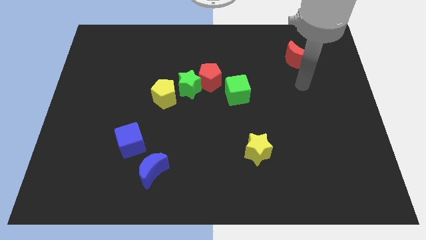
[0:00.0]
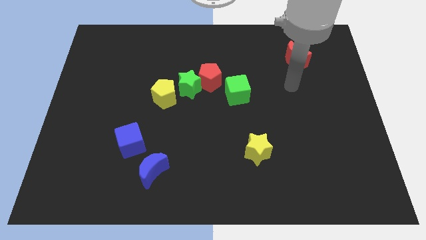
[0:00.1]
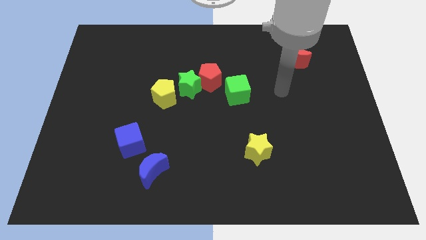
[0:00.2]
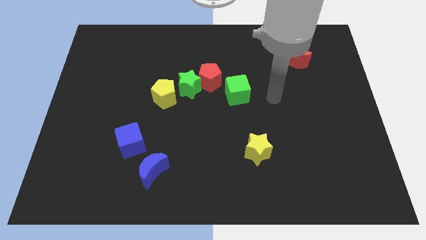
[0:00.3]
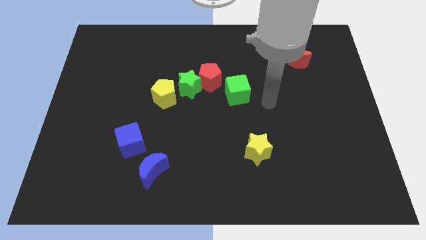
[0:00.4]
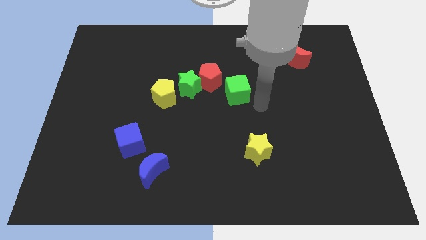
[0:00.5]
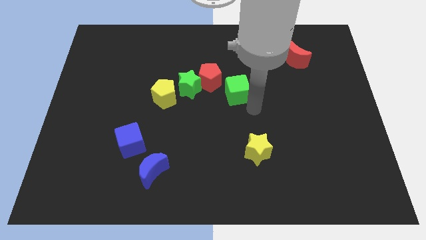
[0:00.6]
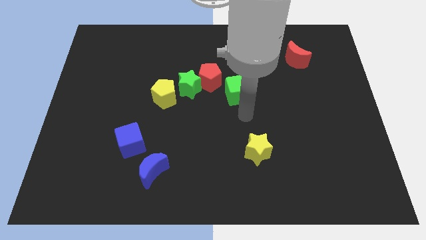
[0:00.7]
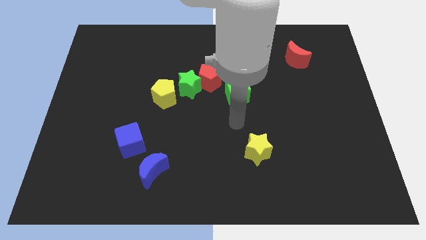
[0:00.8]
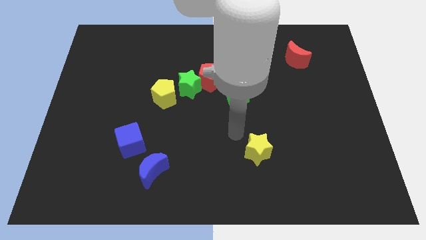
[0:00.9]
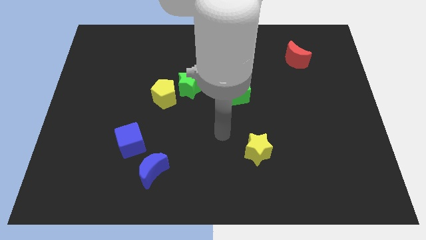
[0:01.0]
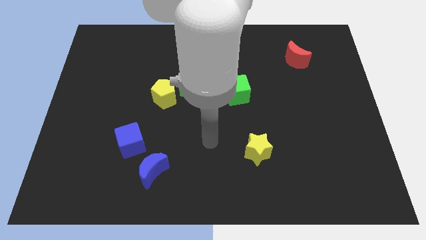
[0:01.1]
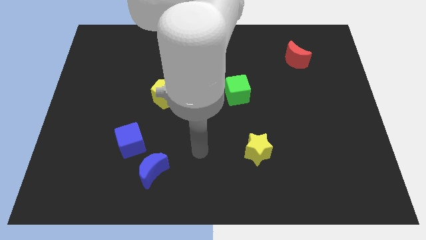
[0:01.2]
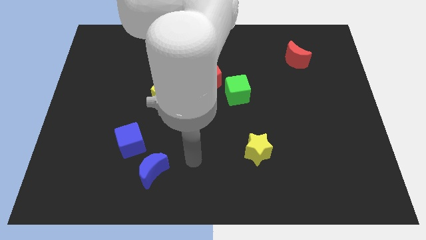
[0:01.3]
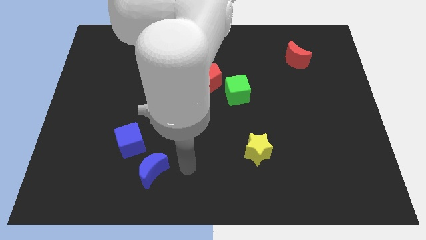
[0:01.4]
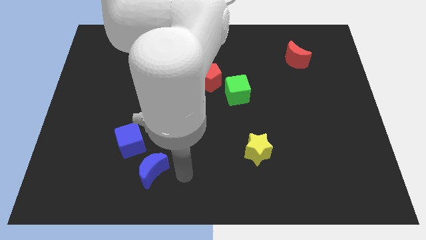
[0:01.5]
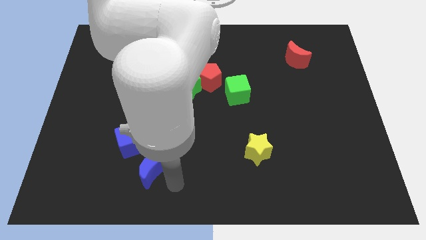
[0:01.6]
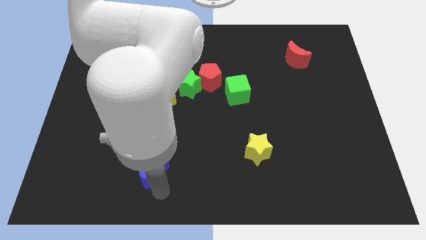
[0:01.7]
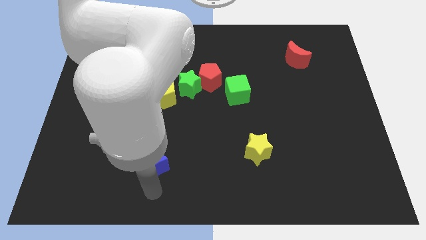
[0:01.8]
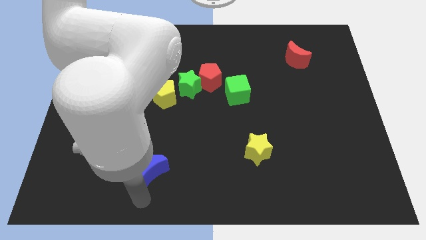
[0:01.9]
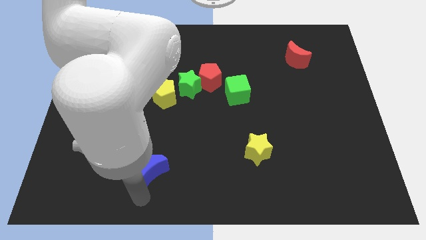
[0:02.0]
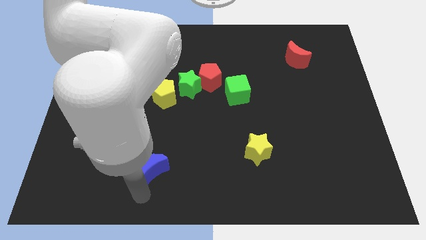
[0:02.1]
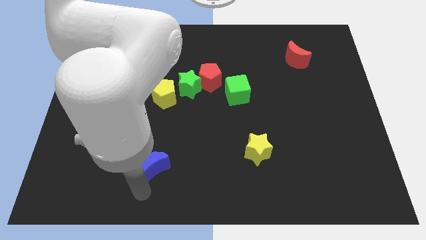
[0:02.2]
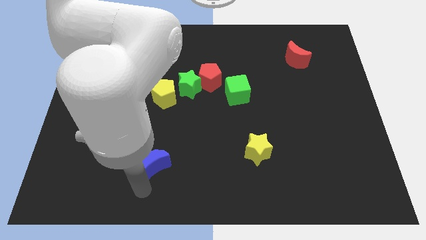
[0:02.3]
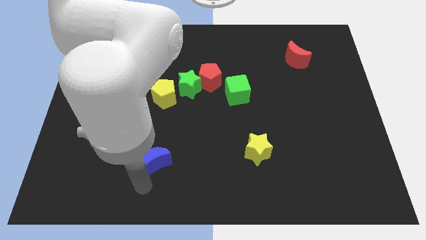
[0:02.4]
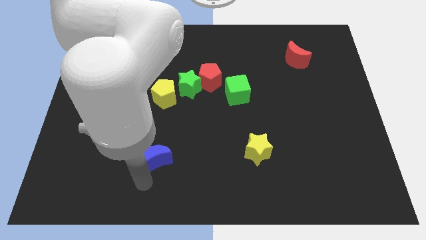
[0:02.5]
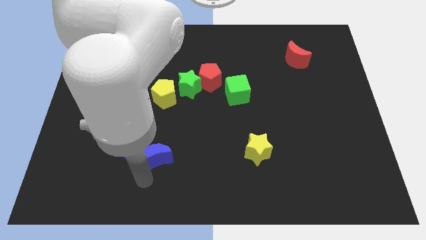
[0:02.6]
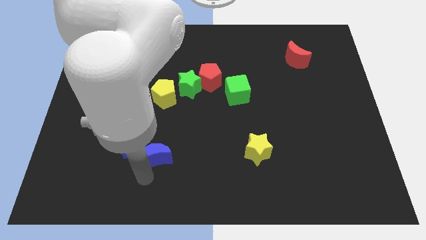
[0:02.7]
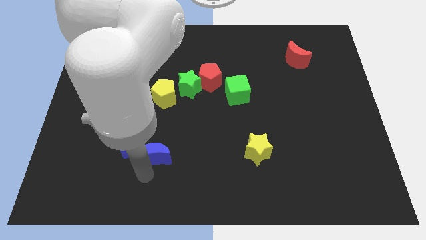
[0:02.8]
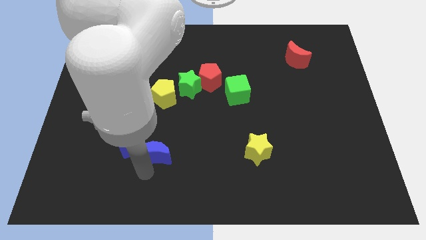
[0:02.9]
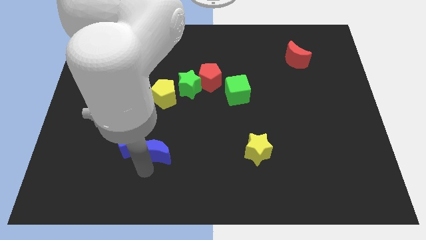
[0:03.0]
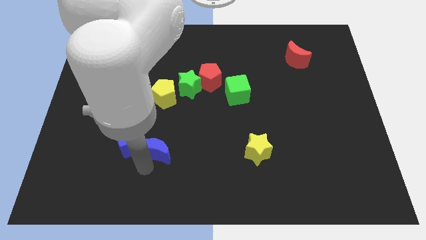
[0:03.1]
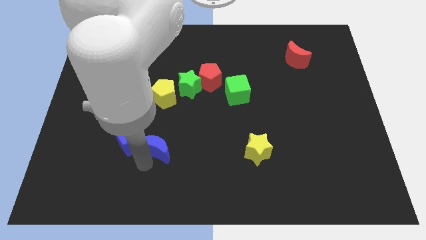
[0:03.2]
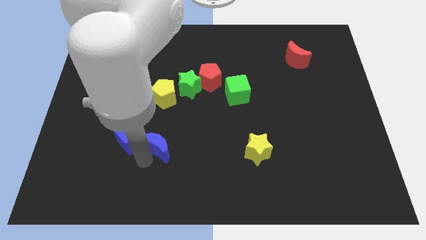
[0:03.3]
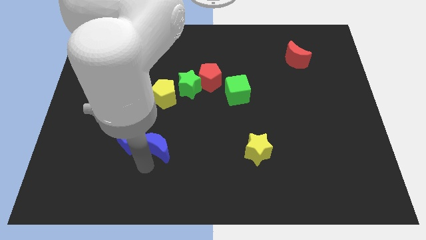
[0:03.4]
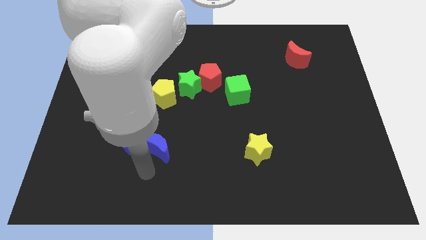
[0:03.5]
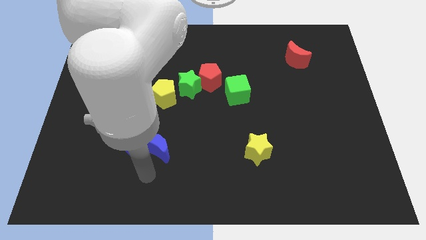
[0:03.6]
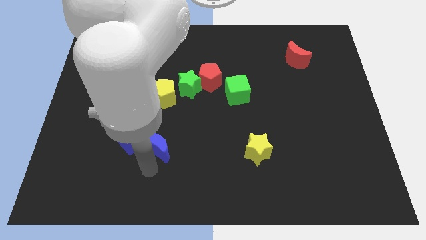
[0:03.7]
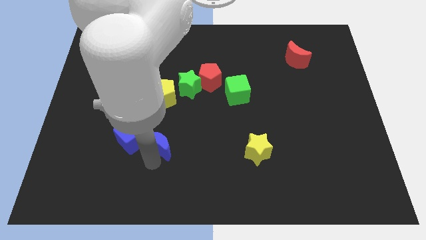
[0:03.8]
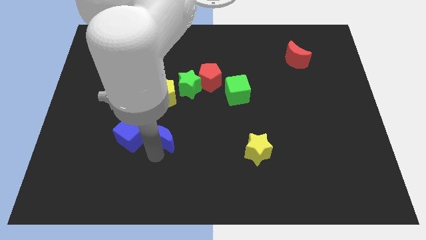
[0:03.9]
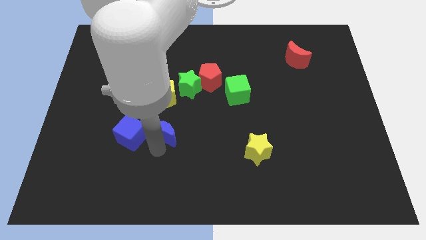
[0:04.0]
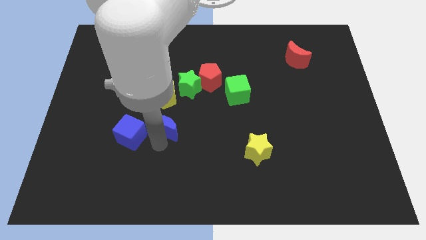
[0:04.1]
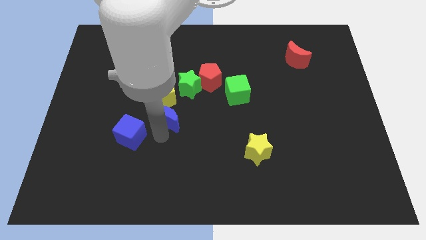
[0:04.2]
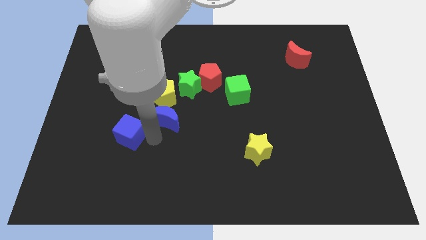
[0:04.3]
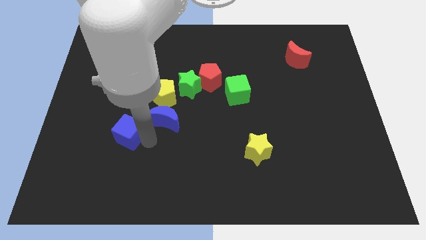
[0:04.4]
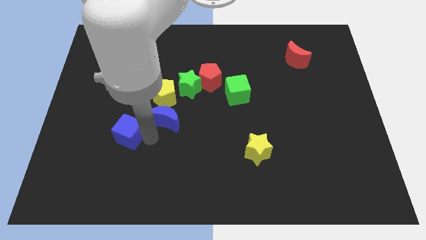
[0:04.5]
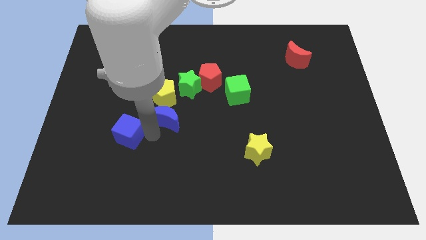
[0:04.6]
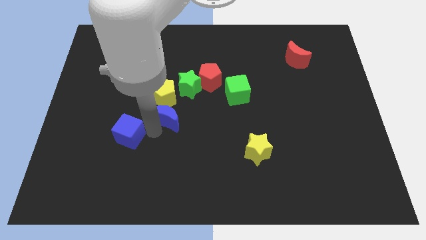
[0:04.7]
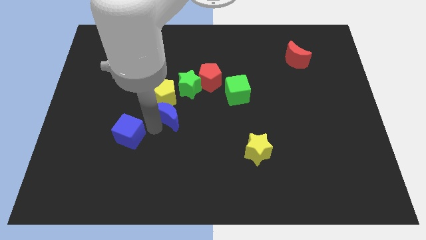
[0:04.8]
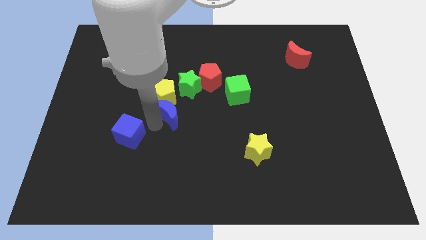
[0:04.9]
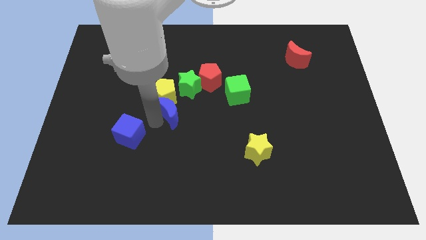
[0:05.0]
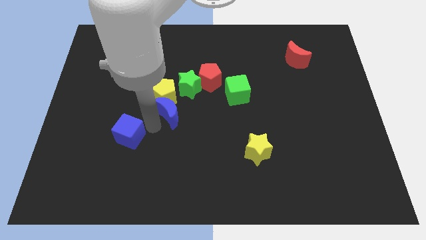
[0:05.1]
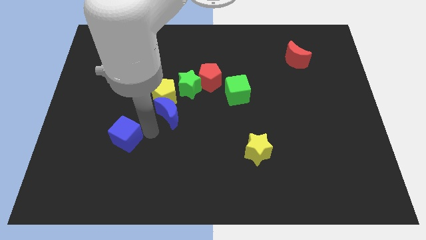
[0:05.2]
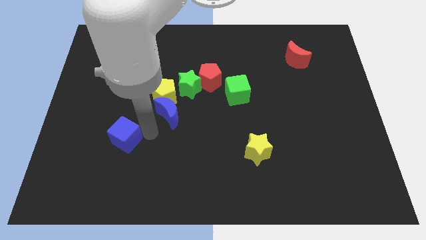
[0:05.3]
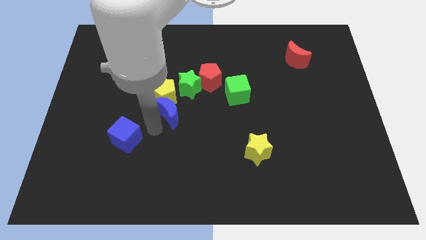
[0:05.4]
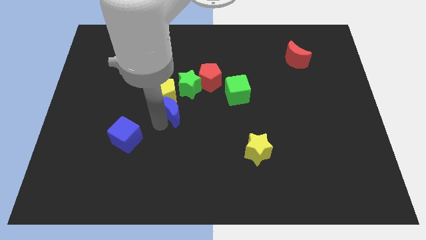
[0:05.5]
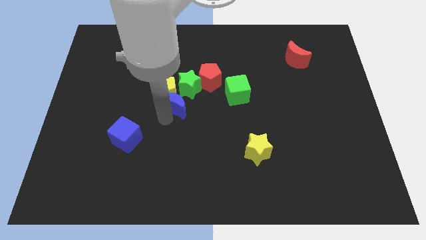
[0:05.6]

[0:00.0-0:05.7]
move the blue moon diagonally down and to the left of the red pentagon

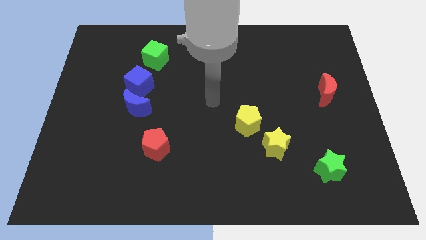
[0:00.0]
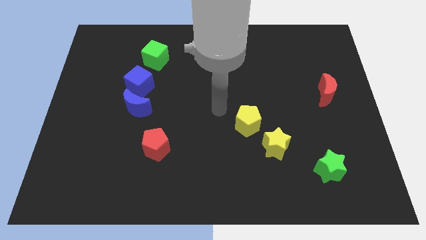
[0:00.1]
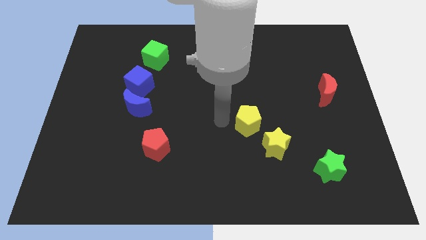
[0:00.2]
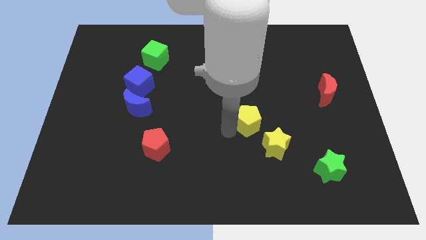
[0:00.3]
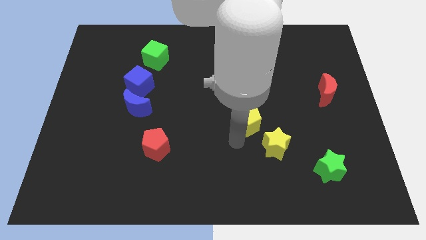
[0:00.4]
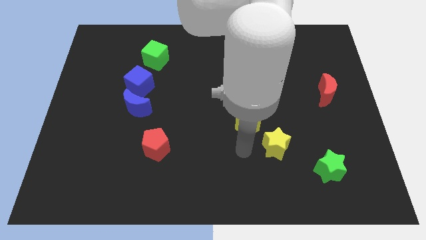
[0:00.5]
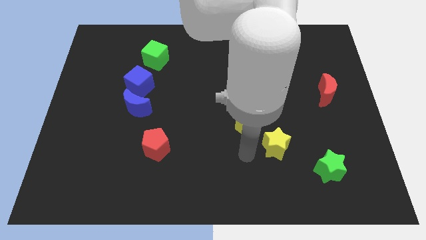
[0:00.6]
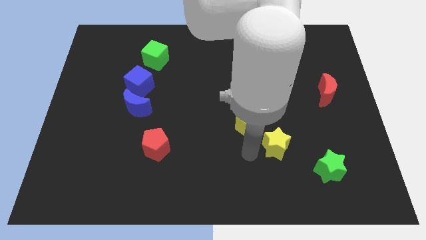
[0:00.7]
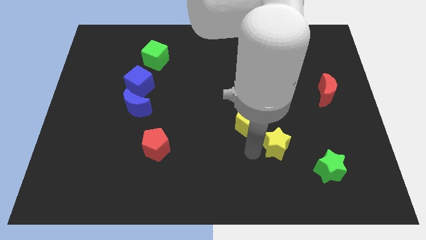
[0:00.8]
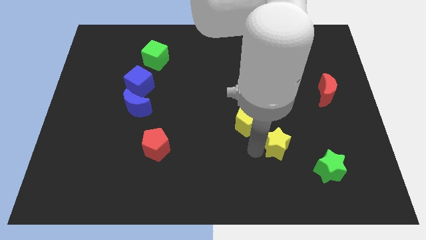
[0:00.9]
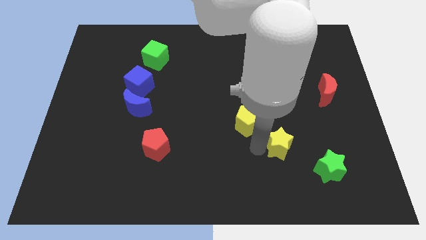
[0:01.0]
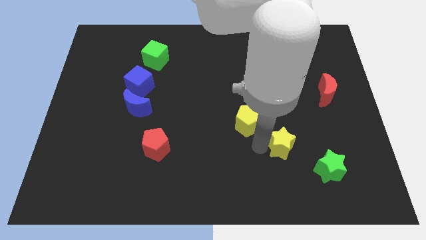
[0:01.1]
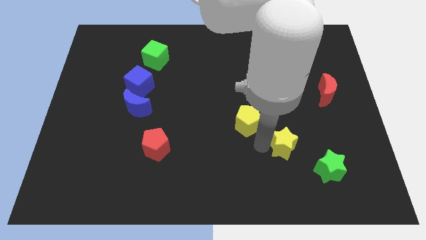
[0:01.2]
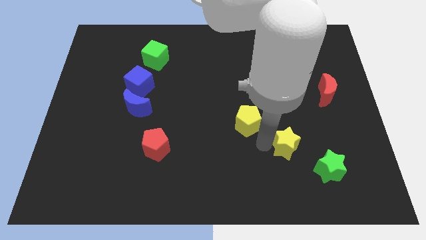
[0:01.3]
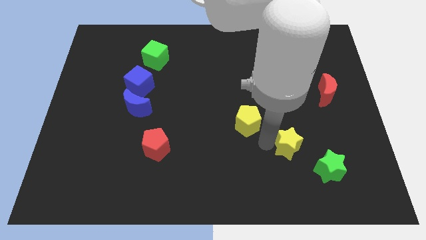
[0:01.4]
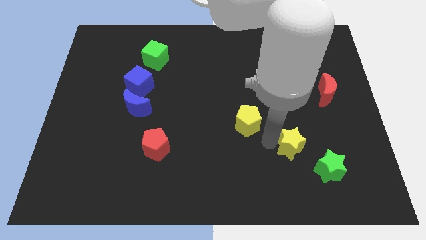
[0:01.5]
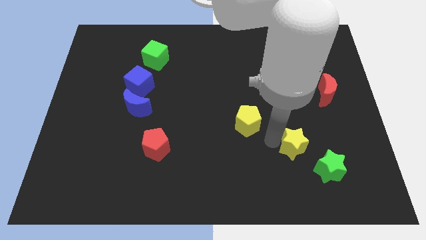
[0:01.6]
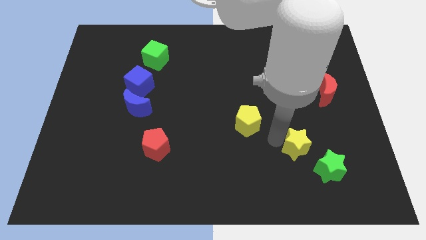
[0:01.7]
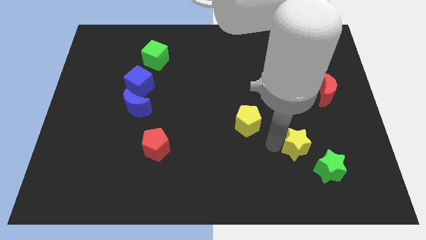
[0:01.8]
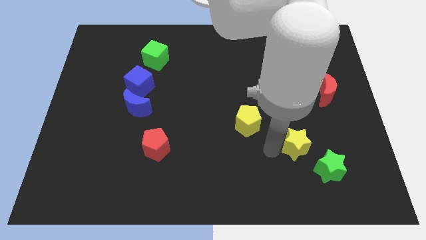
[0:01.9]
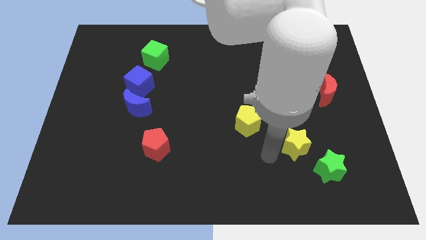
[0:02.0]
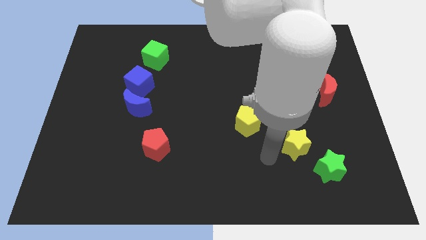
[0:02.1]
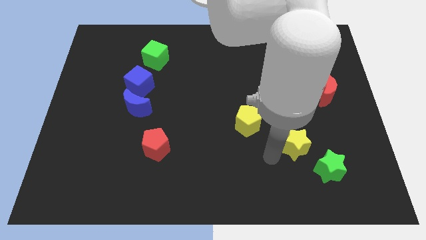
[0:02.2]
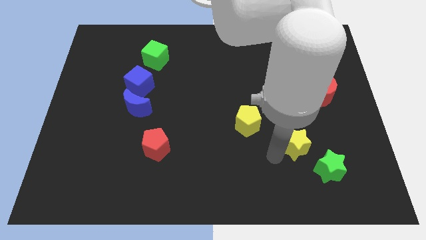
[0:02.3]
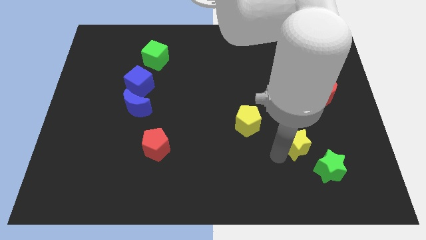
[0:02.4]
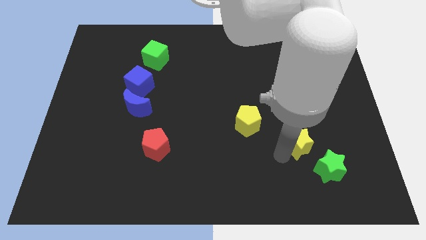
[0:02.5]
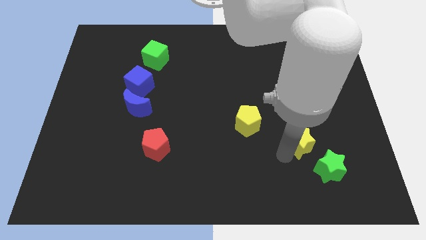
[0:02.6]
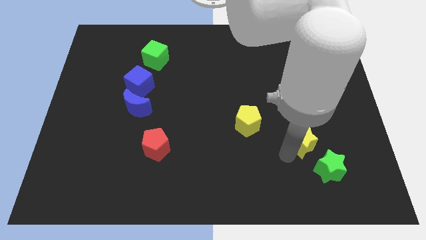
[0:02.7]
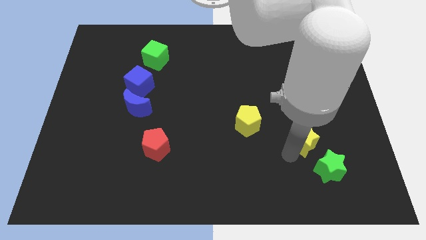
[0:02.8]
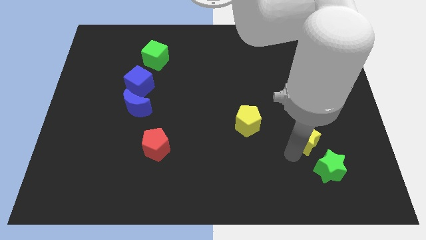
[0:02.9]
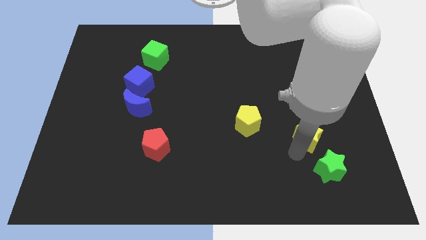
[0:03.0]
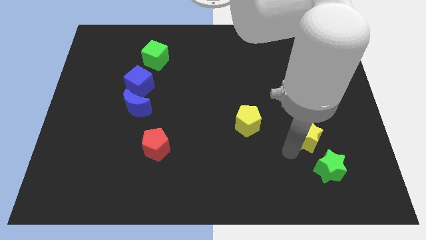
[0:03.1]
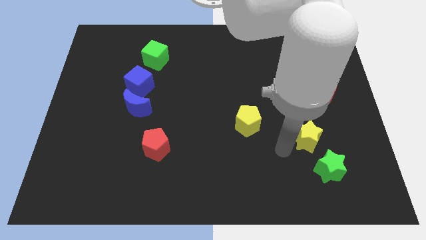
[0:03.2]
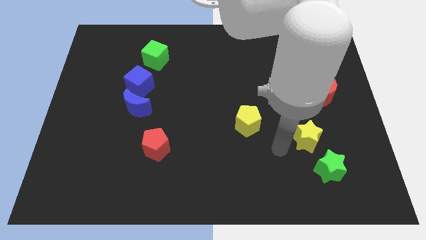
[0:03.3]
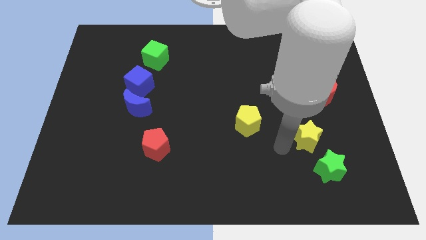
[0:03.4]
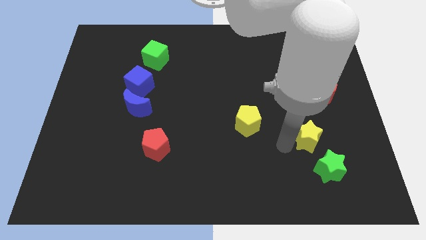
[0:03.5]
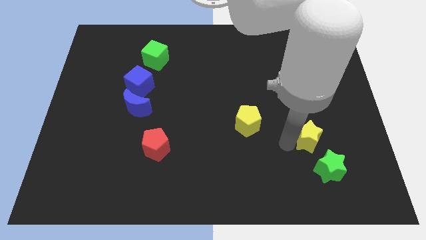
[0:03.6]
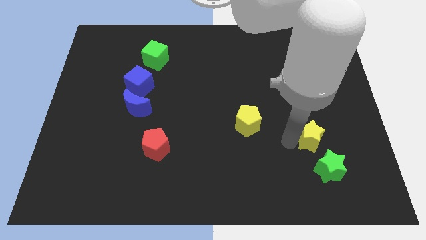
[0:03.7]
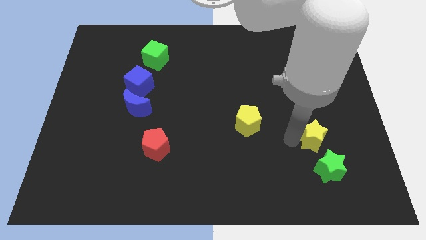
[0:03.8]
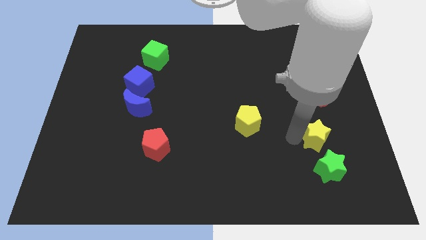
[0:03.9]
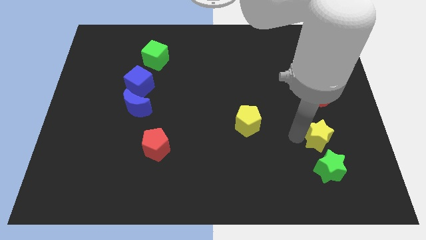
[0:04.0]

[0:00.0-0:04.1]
move the yellow star to the bottom side of the red moon
